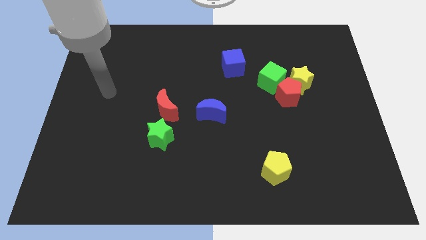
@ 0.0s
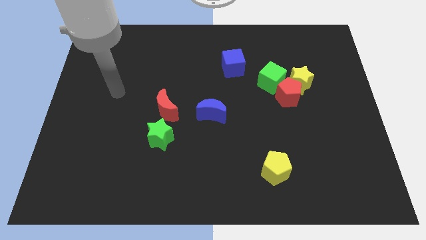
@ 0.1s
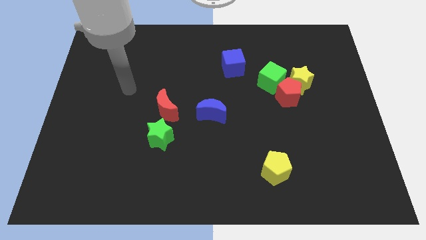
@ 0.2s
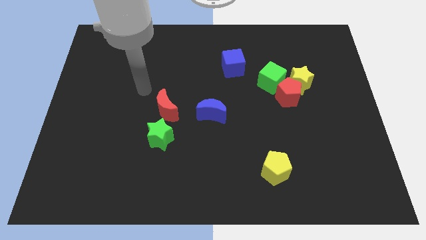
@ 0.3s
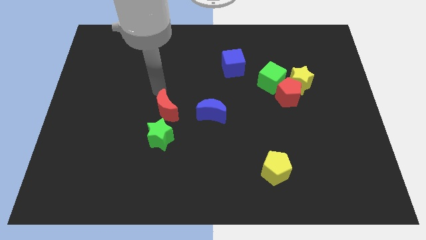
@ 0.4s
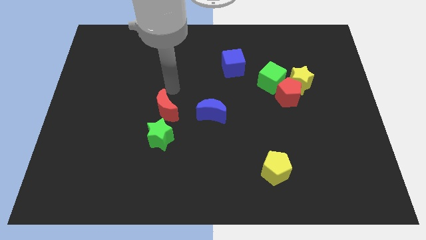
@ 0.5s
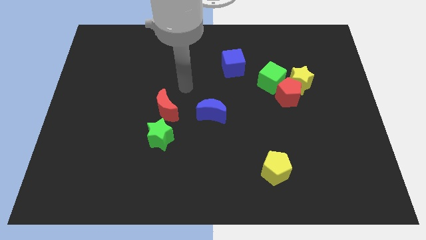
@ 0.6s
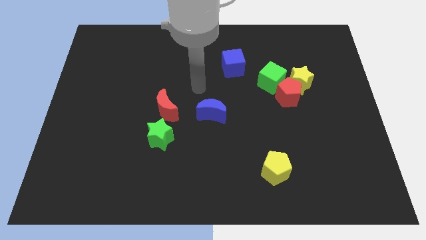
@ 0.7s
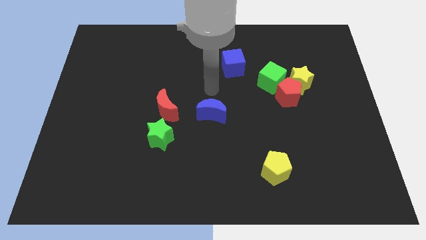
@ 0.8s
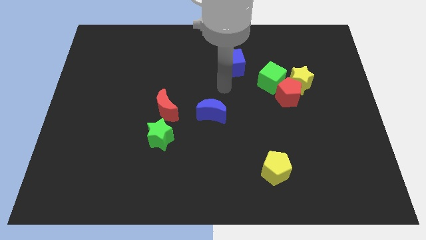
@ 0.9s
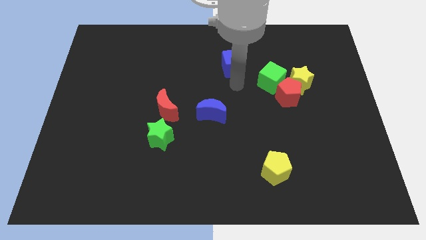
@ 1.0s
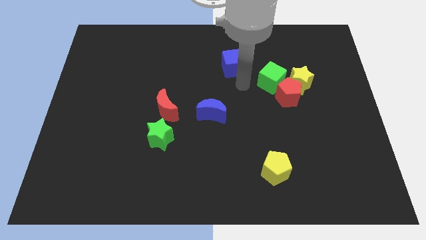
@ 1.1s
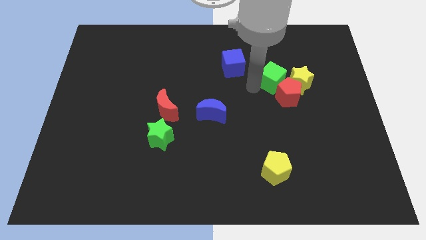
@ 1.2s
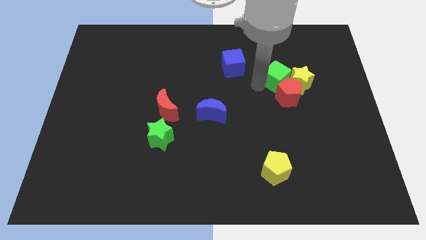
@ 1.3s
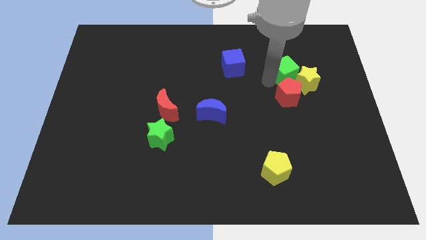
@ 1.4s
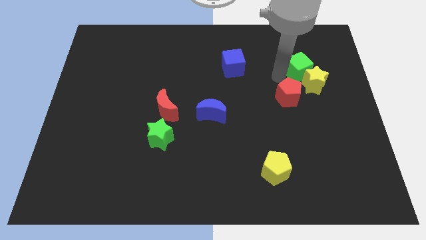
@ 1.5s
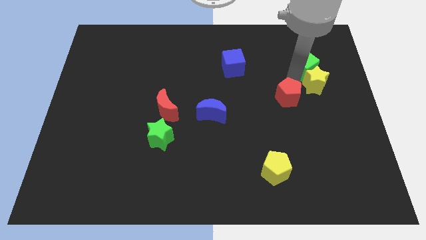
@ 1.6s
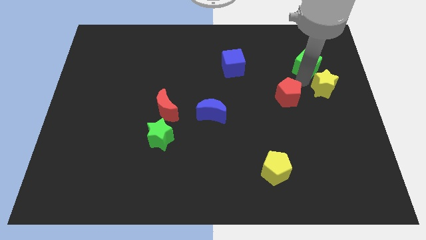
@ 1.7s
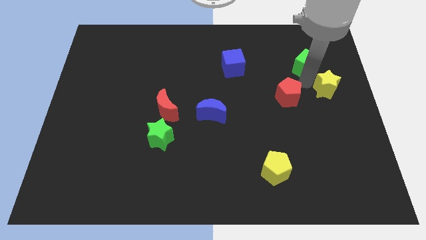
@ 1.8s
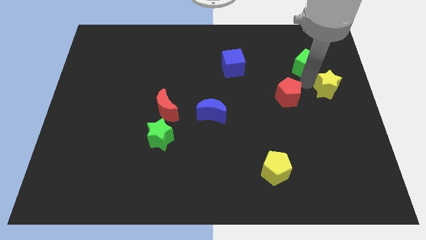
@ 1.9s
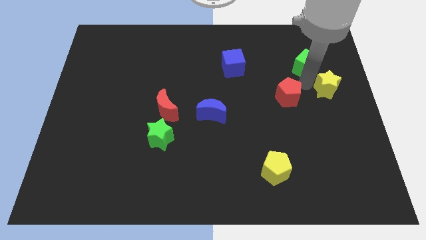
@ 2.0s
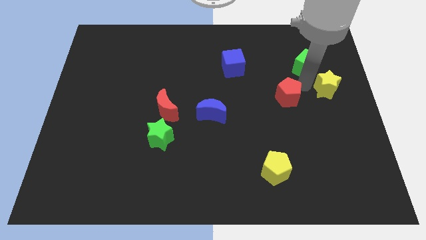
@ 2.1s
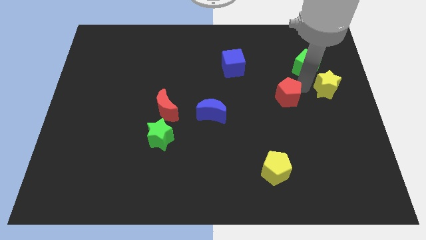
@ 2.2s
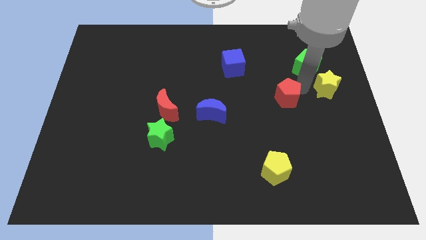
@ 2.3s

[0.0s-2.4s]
separate the red pentagon from the yellow star and green cube

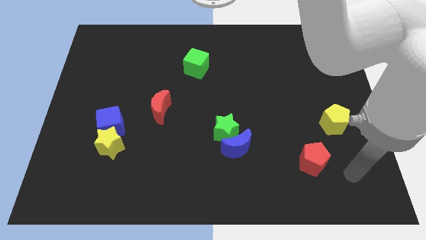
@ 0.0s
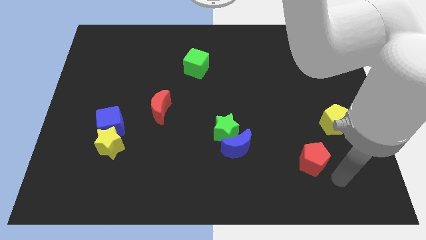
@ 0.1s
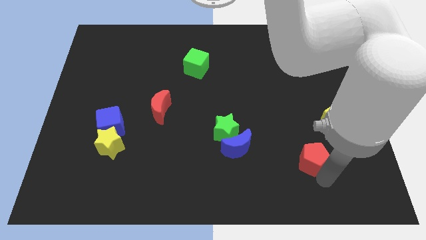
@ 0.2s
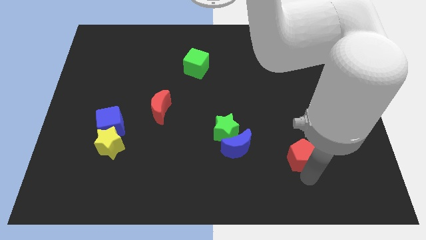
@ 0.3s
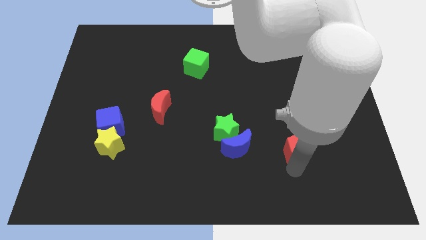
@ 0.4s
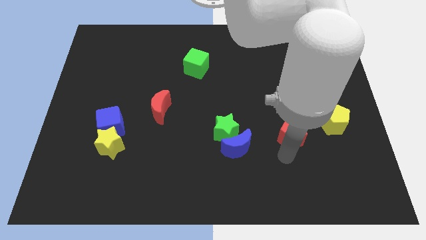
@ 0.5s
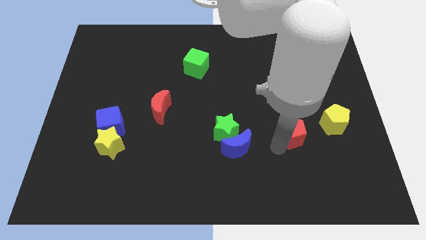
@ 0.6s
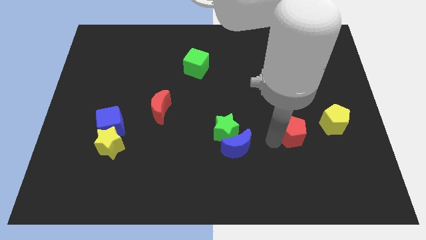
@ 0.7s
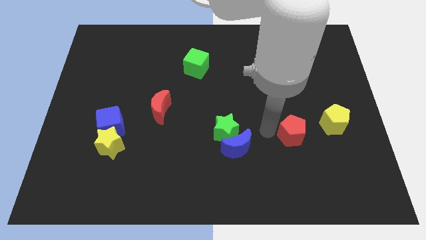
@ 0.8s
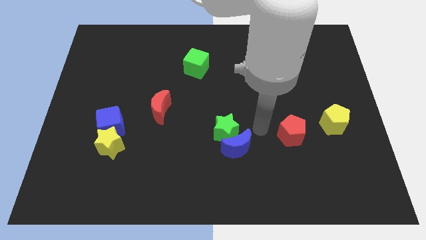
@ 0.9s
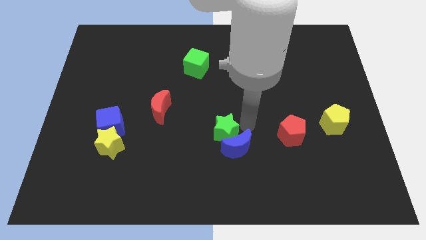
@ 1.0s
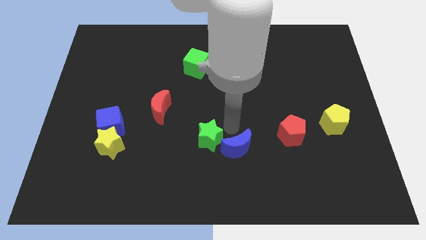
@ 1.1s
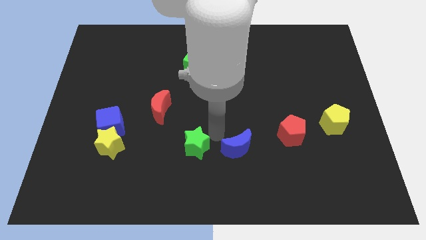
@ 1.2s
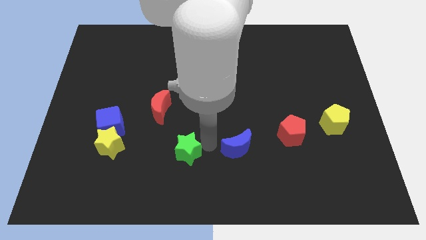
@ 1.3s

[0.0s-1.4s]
separate the blue moon from the green star

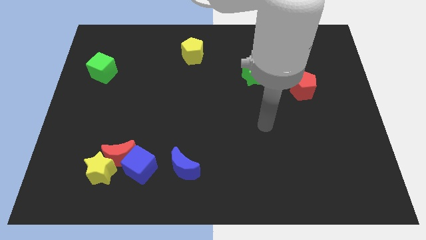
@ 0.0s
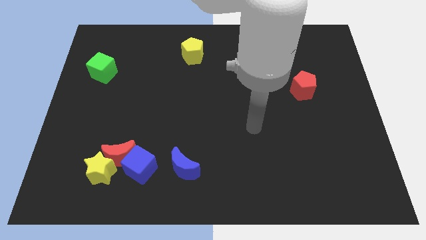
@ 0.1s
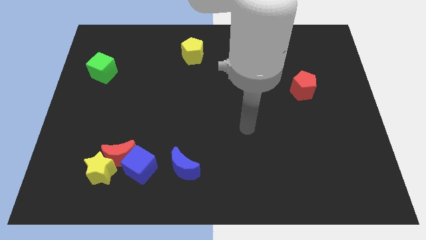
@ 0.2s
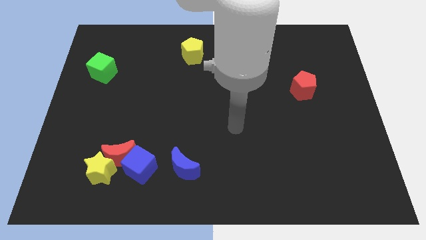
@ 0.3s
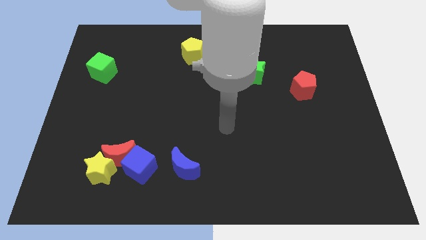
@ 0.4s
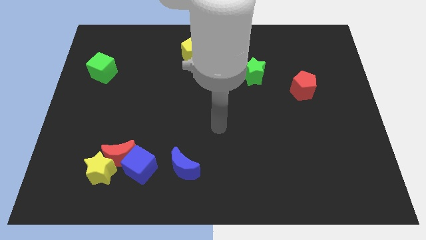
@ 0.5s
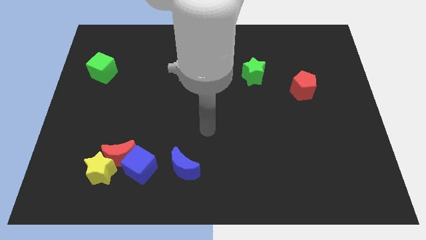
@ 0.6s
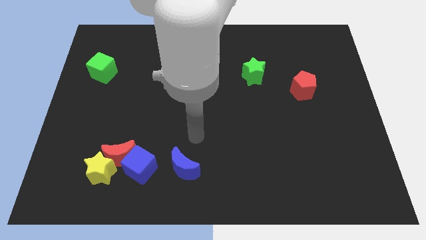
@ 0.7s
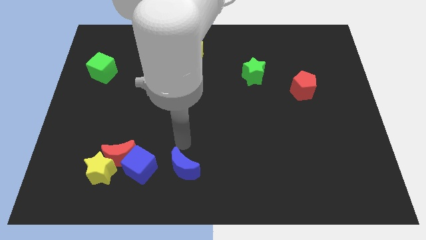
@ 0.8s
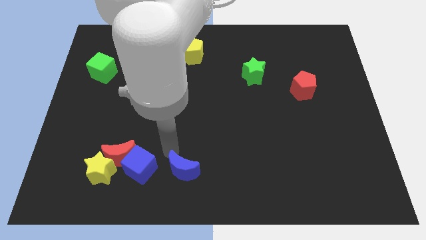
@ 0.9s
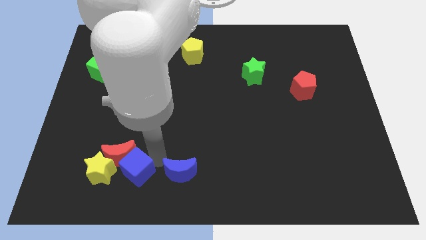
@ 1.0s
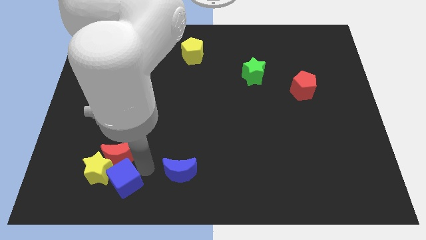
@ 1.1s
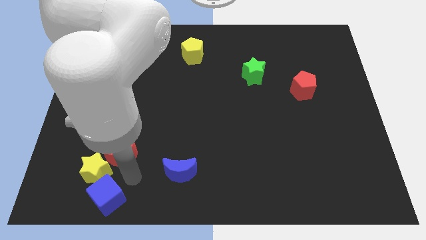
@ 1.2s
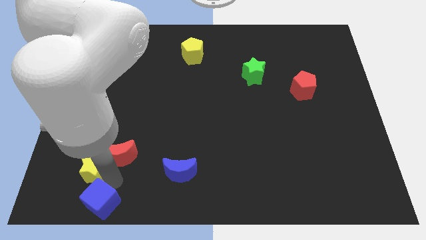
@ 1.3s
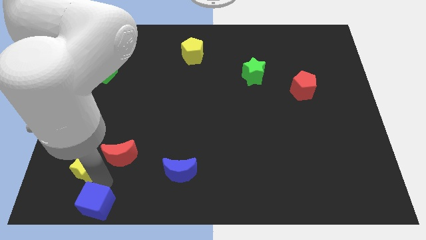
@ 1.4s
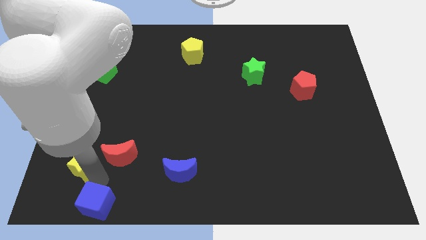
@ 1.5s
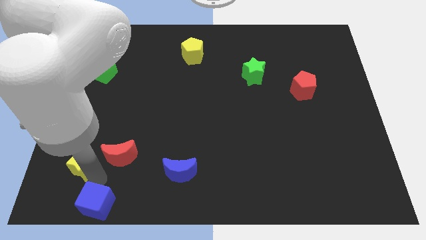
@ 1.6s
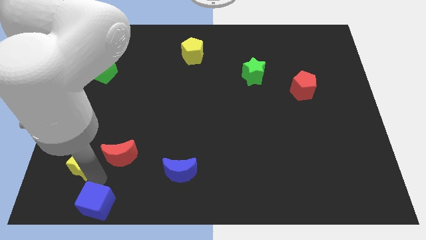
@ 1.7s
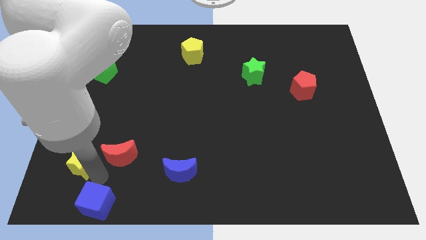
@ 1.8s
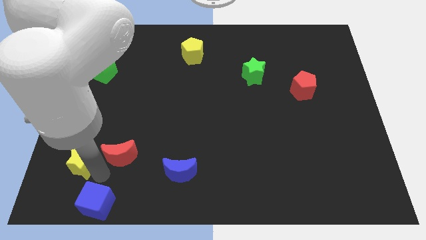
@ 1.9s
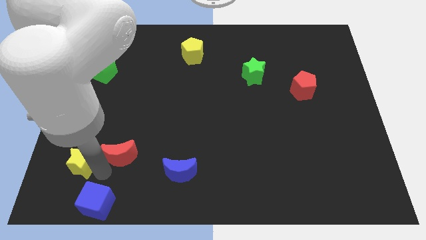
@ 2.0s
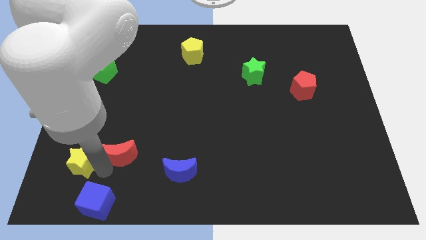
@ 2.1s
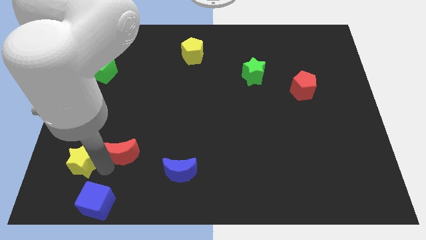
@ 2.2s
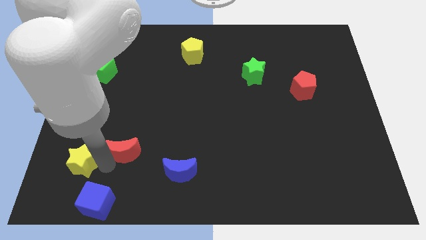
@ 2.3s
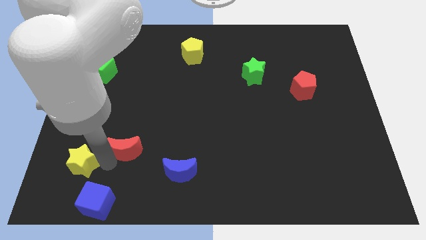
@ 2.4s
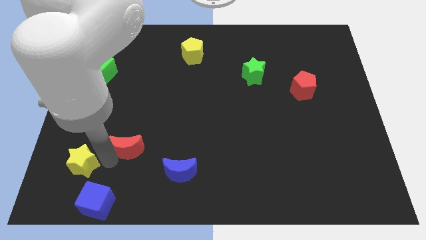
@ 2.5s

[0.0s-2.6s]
pull the red moon apart from the yellow star and blue cube

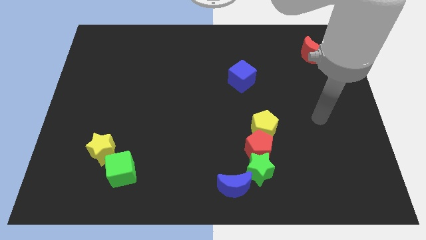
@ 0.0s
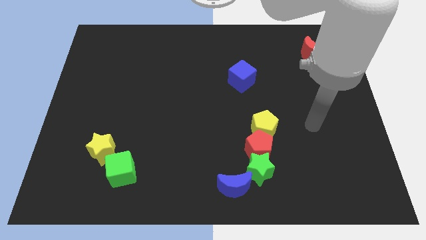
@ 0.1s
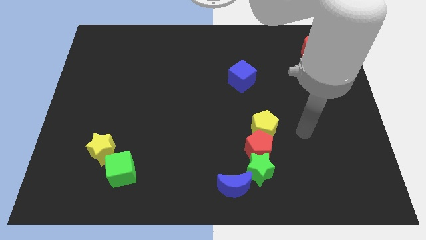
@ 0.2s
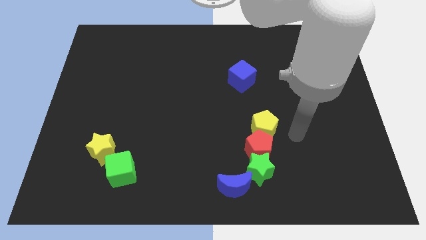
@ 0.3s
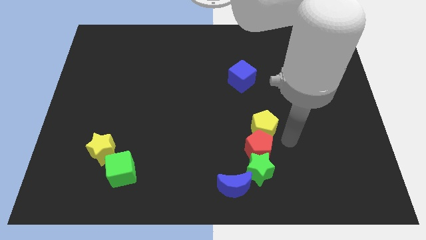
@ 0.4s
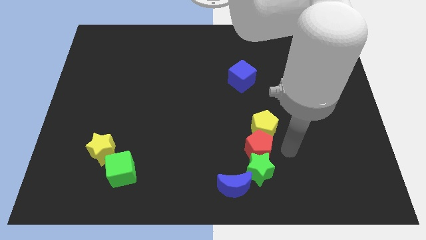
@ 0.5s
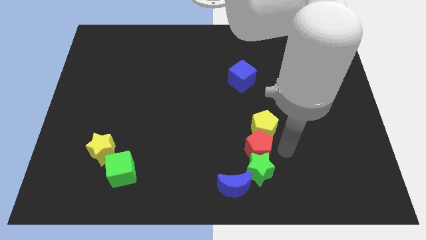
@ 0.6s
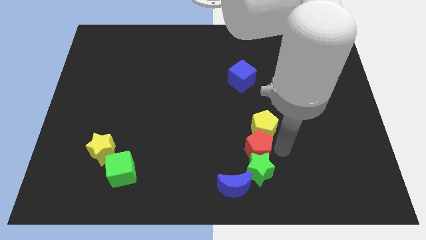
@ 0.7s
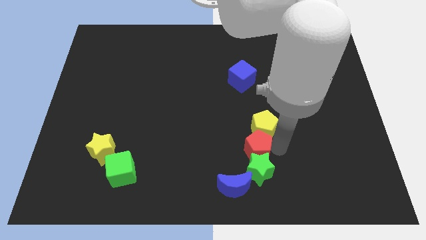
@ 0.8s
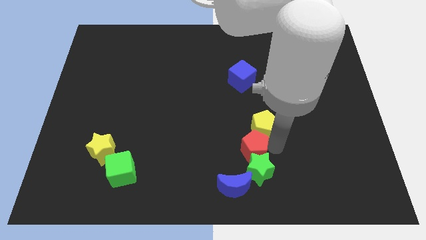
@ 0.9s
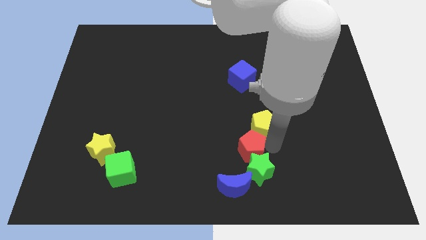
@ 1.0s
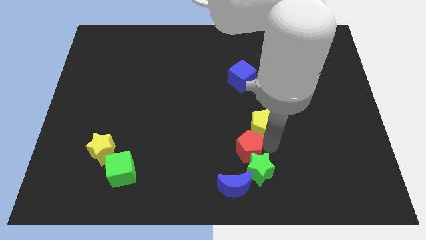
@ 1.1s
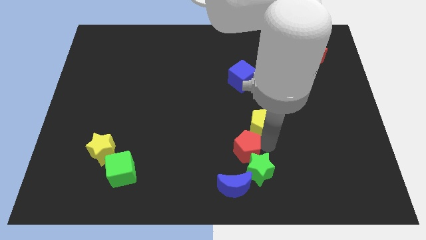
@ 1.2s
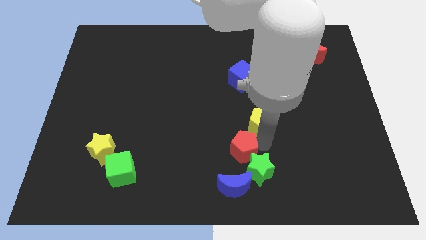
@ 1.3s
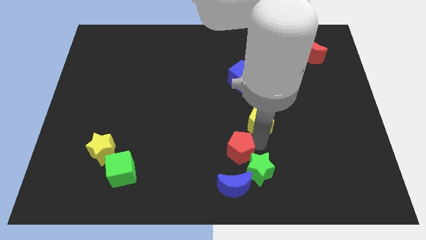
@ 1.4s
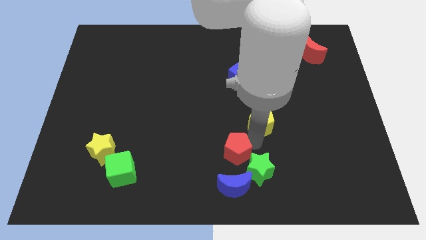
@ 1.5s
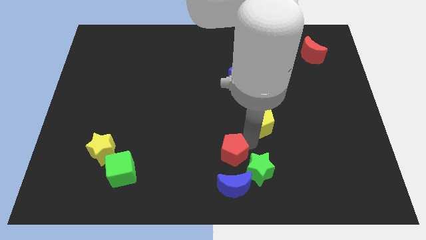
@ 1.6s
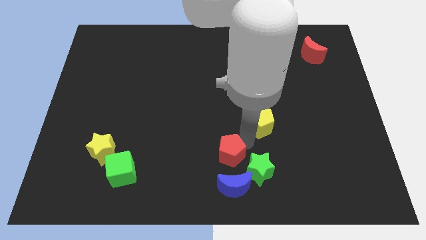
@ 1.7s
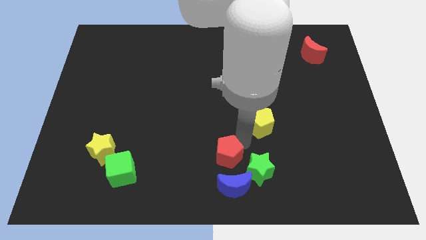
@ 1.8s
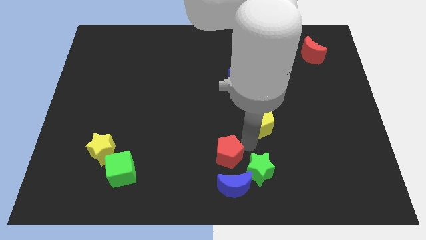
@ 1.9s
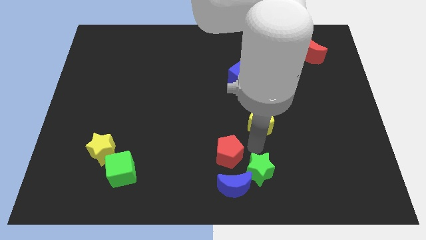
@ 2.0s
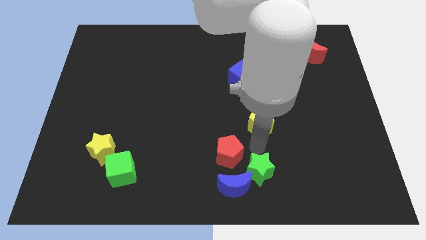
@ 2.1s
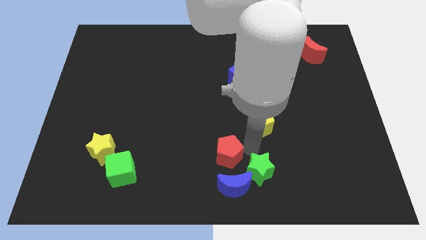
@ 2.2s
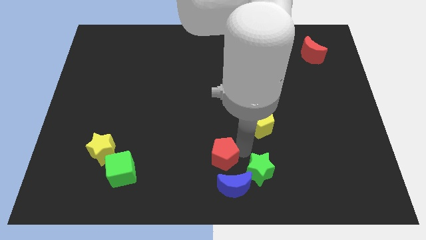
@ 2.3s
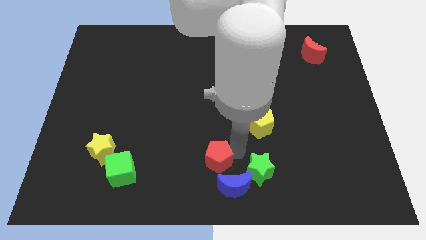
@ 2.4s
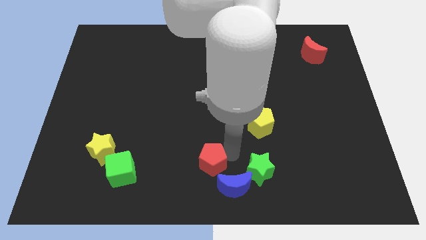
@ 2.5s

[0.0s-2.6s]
separate the red pentagon from the green star and yellow pentagon

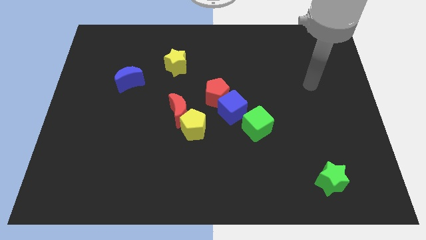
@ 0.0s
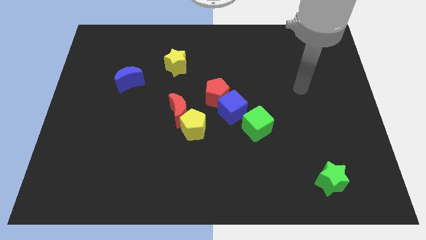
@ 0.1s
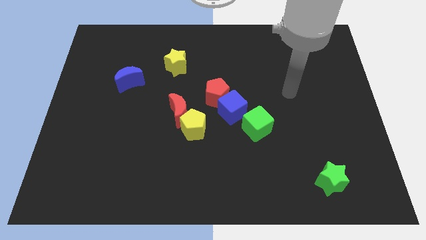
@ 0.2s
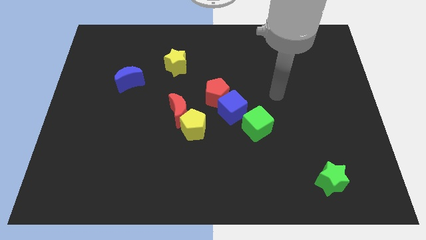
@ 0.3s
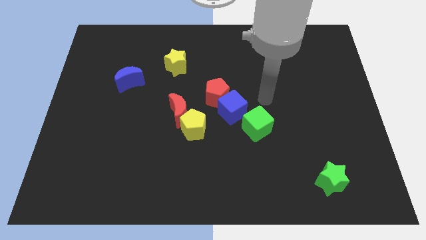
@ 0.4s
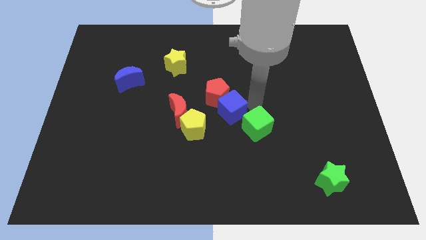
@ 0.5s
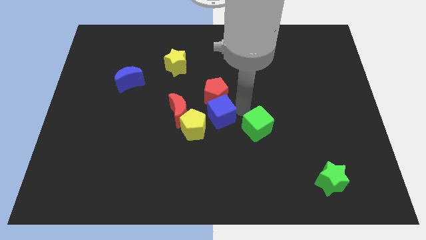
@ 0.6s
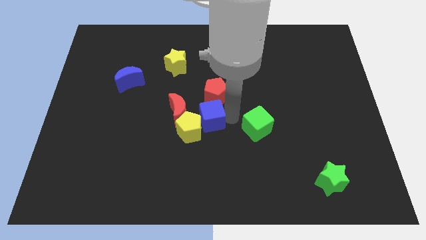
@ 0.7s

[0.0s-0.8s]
separate the green cube from the blue cube
